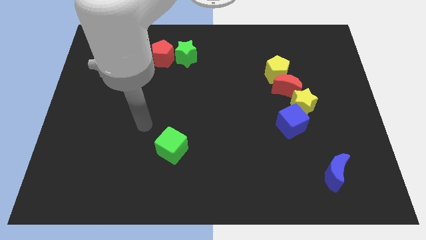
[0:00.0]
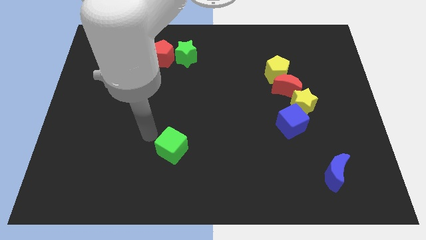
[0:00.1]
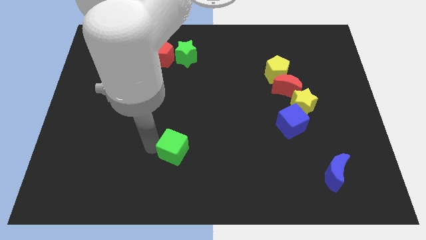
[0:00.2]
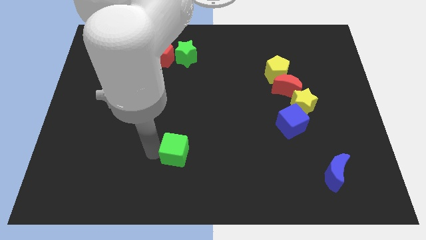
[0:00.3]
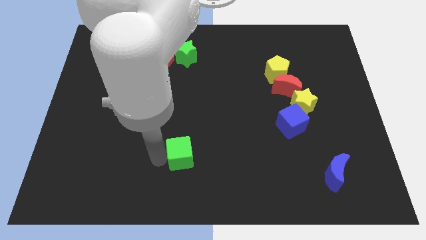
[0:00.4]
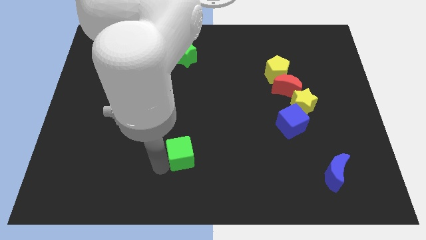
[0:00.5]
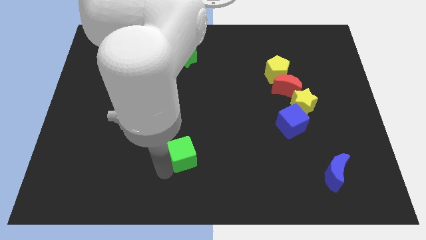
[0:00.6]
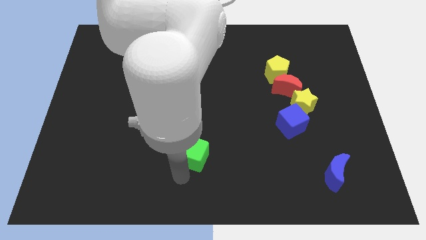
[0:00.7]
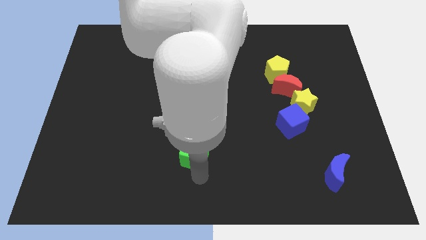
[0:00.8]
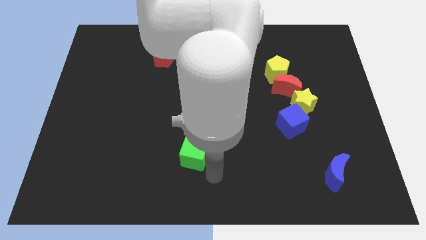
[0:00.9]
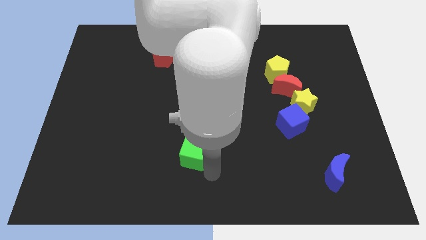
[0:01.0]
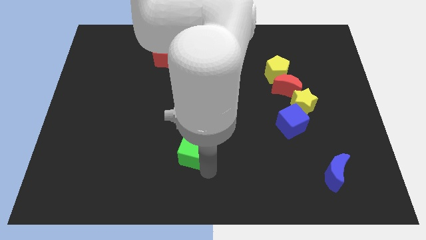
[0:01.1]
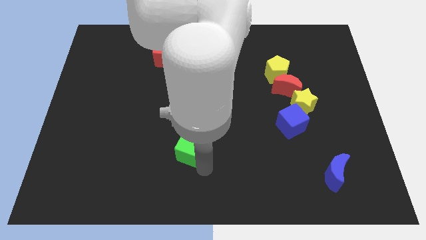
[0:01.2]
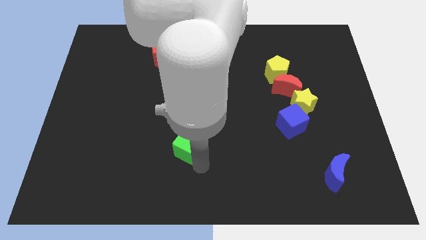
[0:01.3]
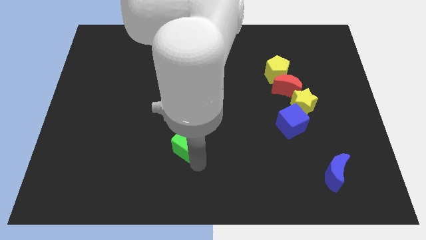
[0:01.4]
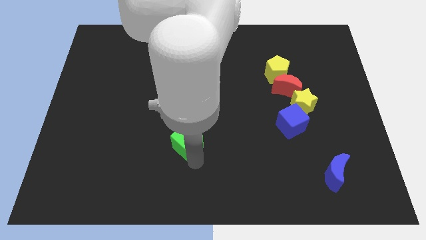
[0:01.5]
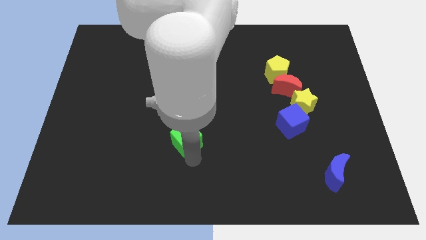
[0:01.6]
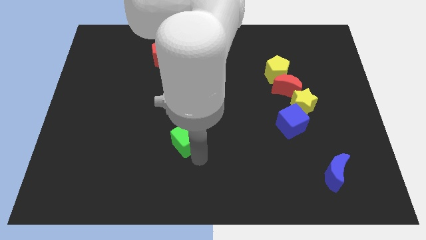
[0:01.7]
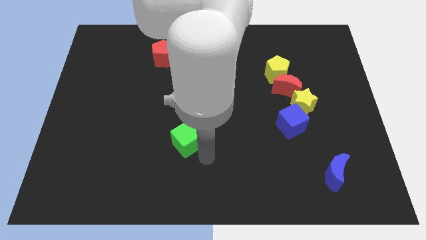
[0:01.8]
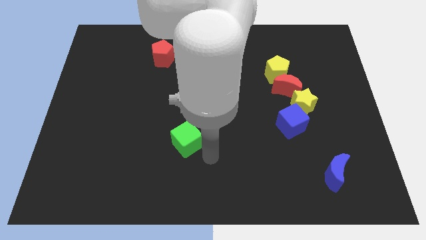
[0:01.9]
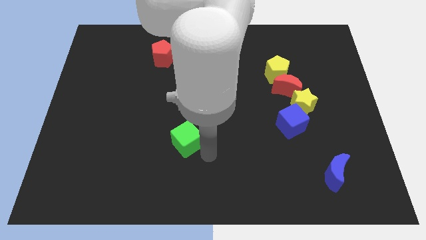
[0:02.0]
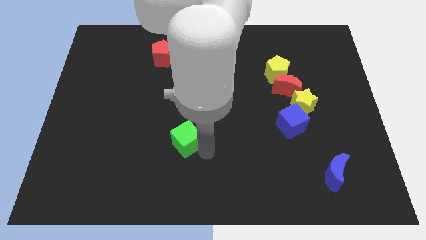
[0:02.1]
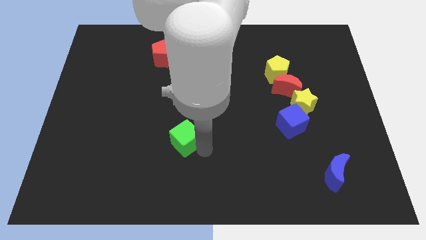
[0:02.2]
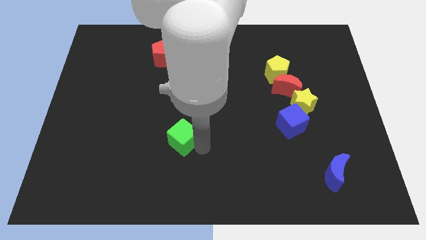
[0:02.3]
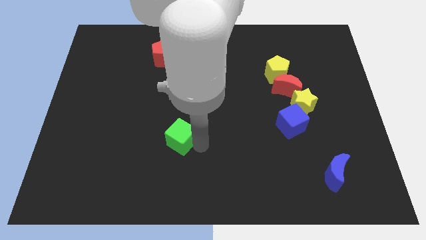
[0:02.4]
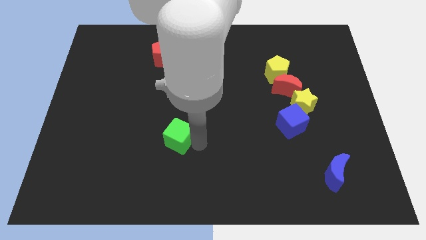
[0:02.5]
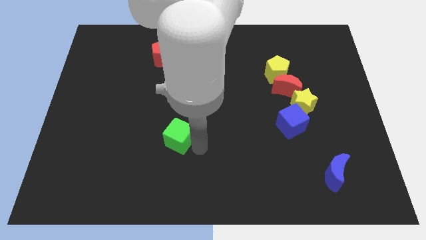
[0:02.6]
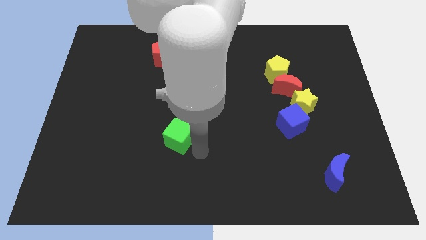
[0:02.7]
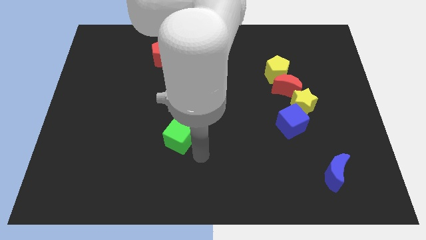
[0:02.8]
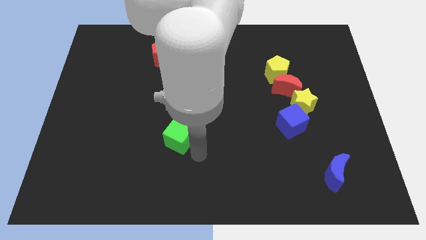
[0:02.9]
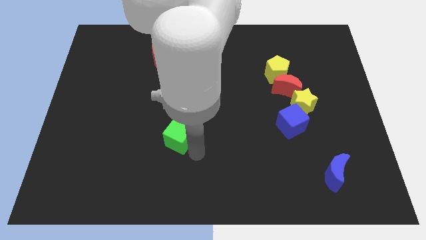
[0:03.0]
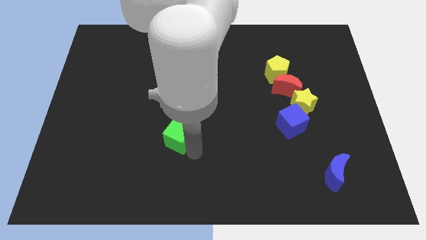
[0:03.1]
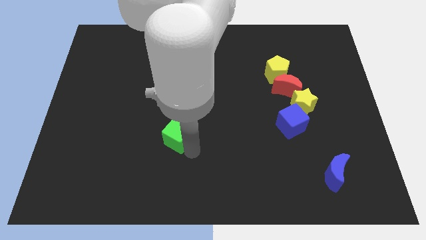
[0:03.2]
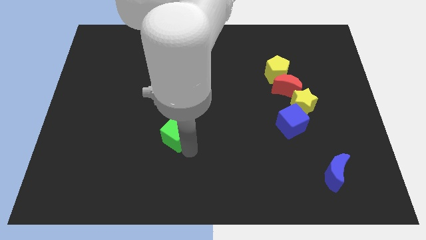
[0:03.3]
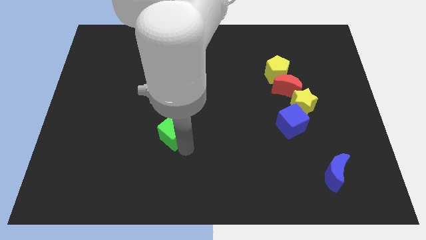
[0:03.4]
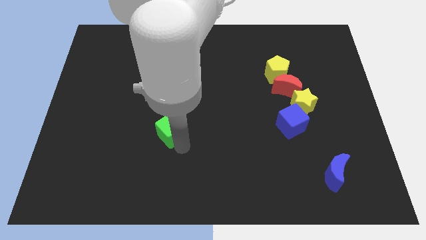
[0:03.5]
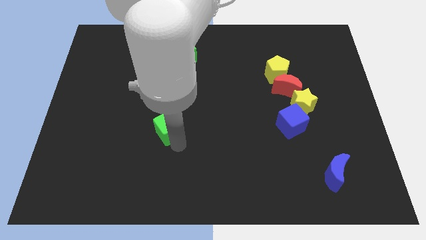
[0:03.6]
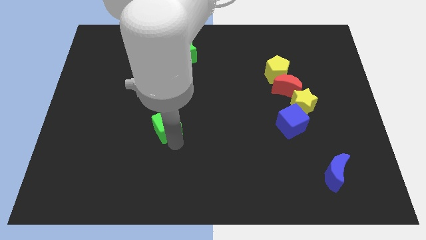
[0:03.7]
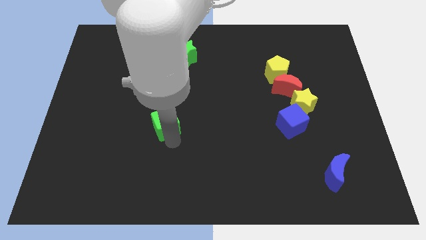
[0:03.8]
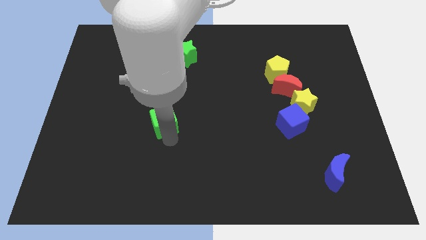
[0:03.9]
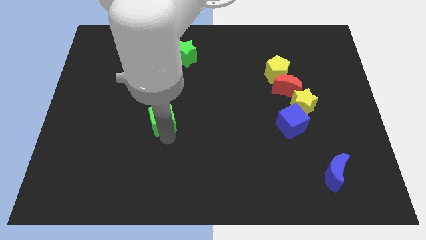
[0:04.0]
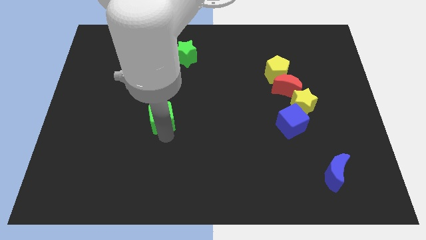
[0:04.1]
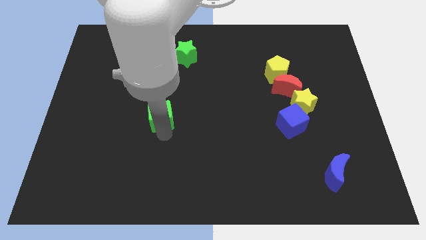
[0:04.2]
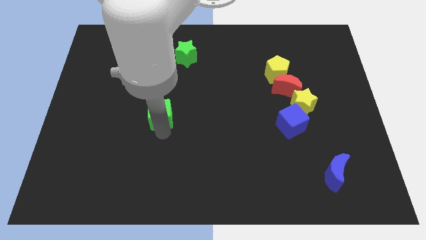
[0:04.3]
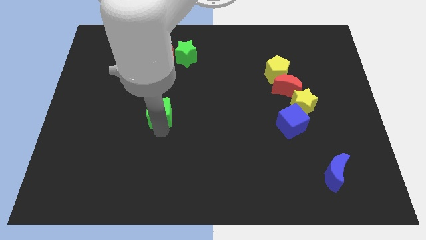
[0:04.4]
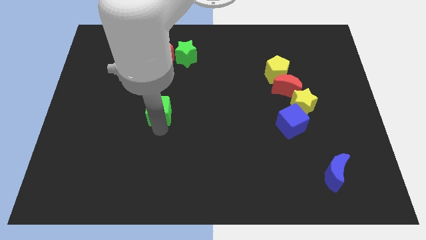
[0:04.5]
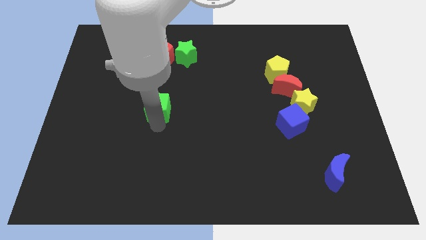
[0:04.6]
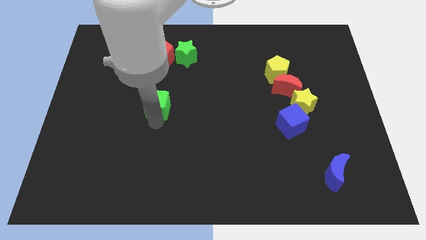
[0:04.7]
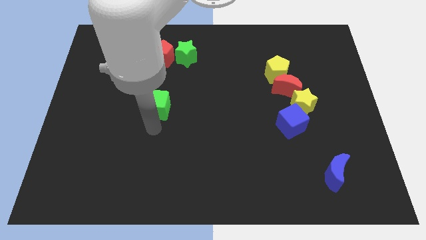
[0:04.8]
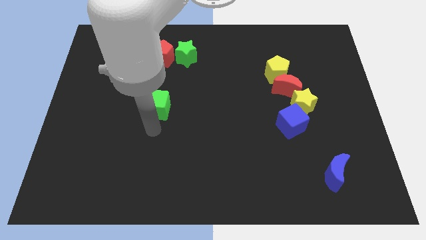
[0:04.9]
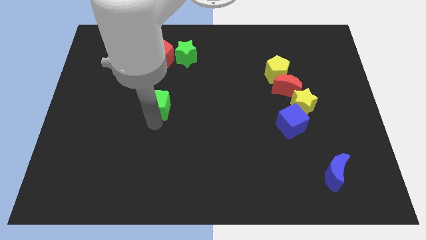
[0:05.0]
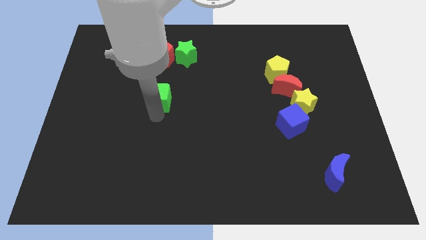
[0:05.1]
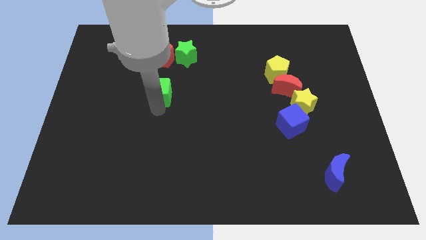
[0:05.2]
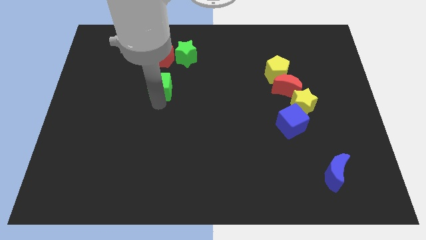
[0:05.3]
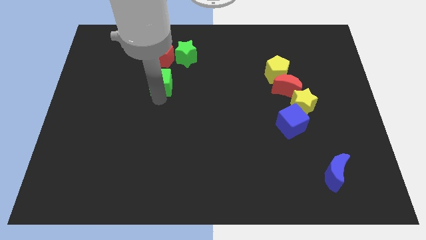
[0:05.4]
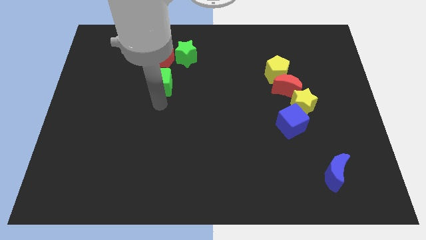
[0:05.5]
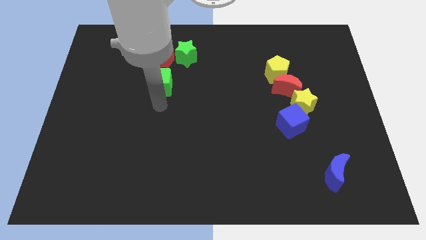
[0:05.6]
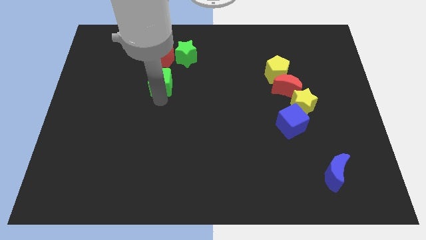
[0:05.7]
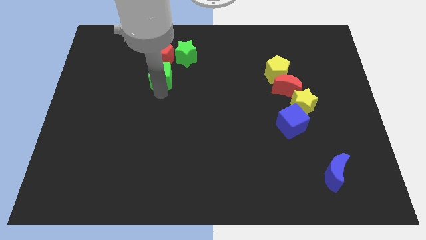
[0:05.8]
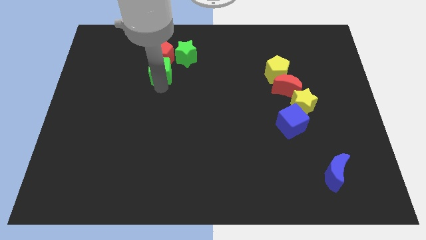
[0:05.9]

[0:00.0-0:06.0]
put the green cube next to the red pentagon

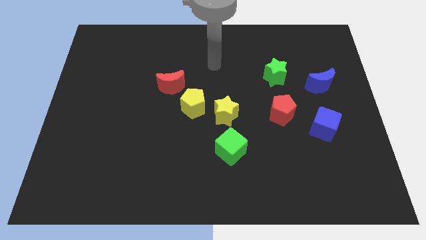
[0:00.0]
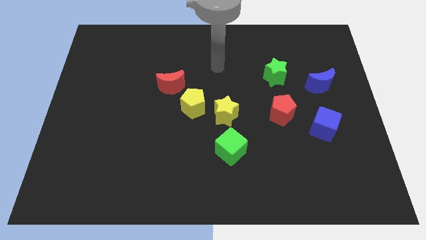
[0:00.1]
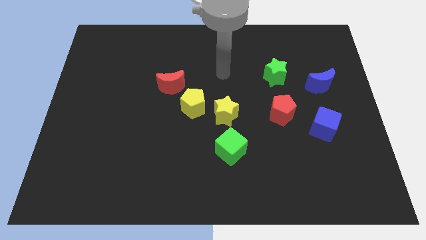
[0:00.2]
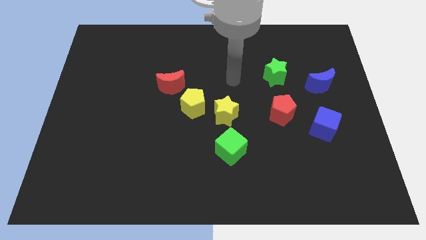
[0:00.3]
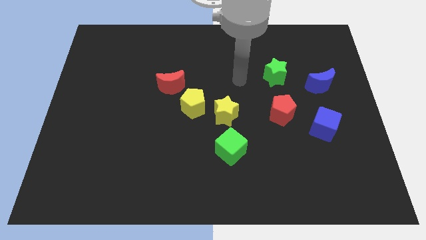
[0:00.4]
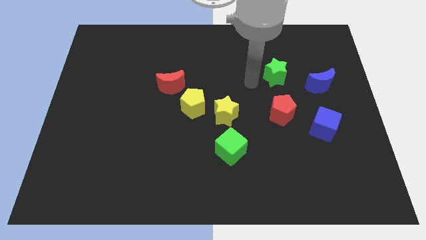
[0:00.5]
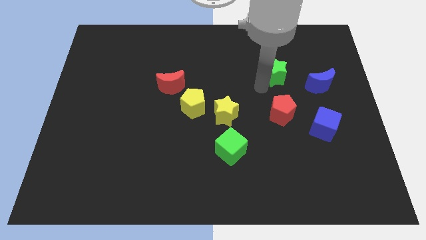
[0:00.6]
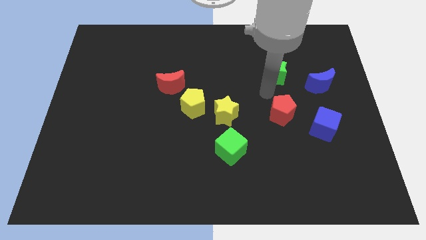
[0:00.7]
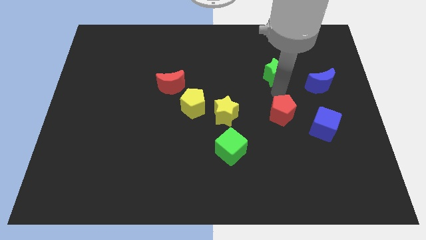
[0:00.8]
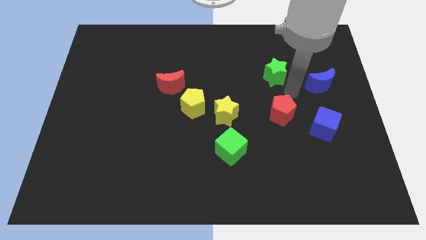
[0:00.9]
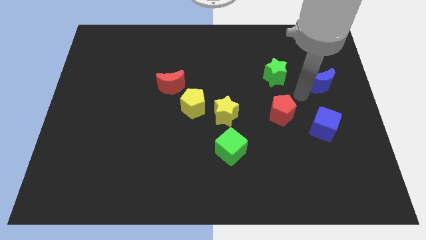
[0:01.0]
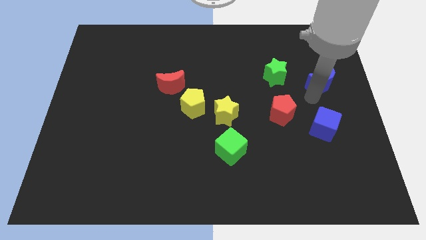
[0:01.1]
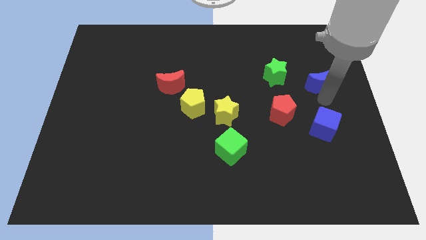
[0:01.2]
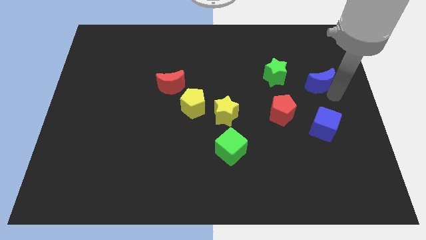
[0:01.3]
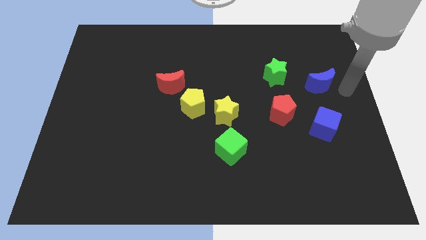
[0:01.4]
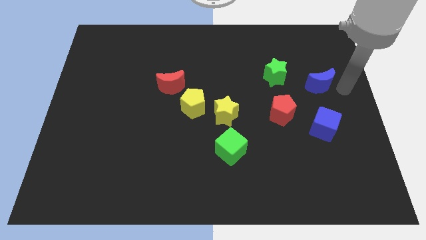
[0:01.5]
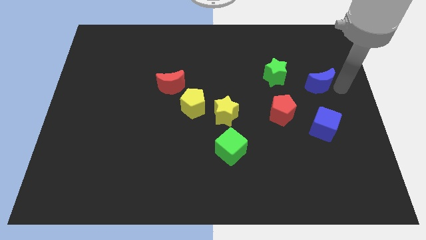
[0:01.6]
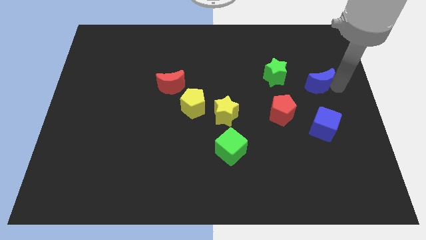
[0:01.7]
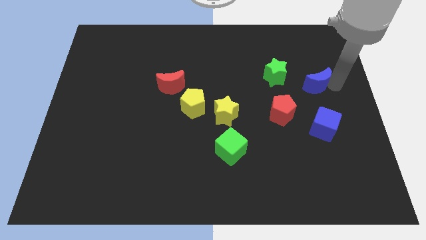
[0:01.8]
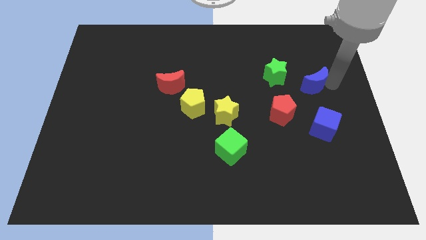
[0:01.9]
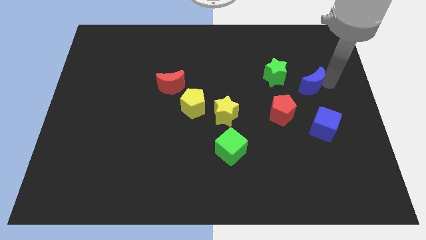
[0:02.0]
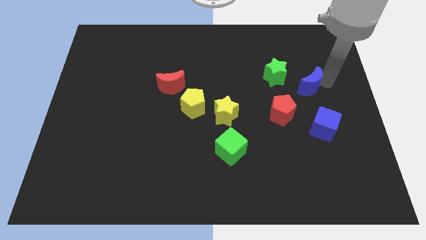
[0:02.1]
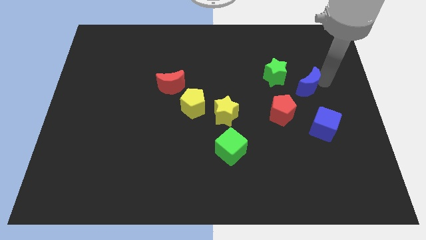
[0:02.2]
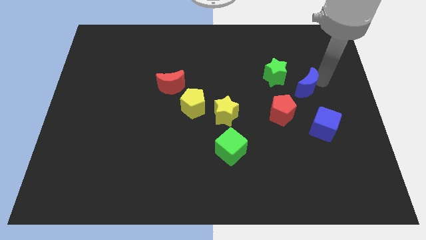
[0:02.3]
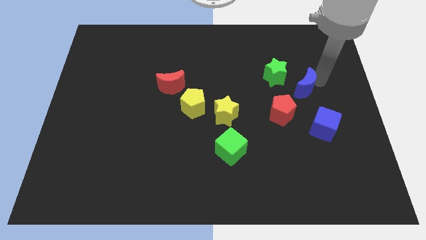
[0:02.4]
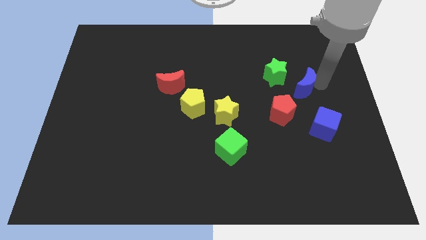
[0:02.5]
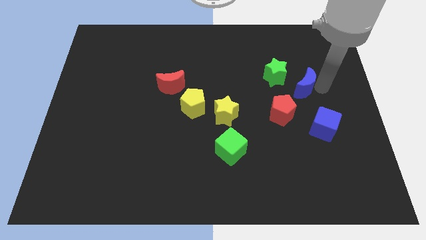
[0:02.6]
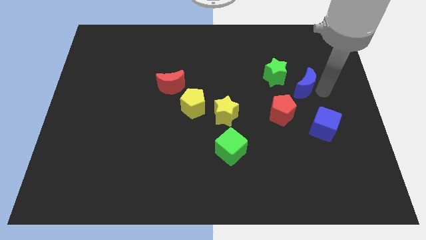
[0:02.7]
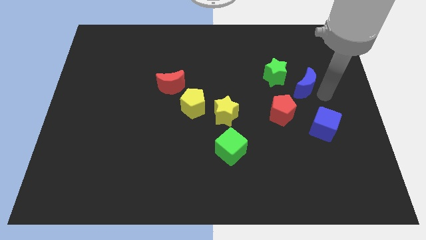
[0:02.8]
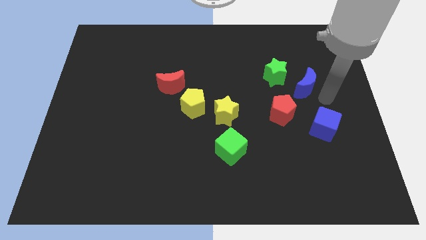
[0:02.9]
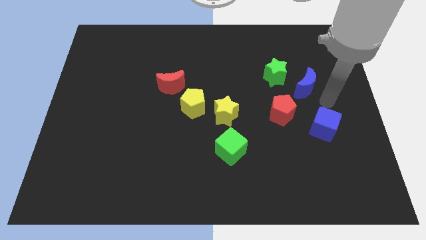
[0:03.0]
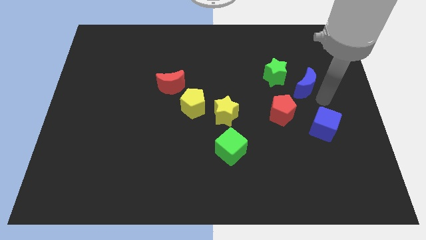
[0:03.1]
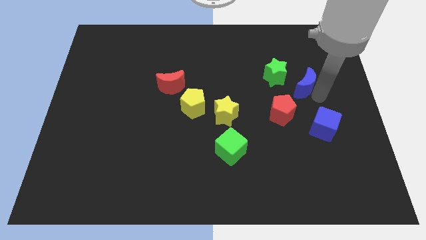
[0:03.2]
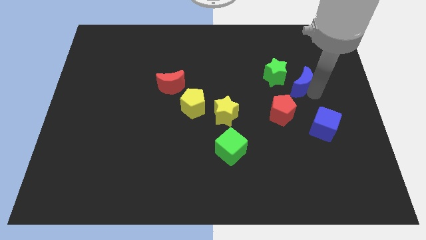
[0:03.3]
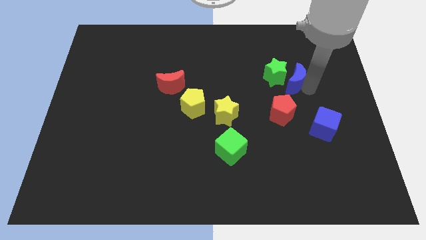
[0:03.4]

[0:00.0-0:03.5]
push the blue moon next to the green star
